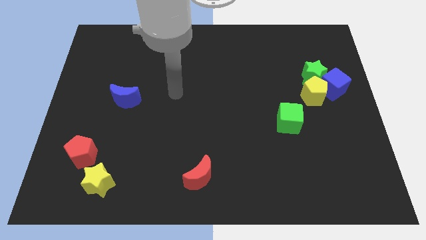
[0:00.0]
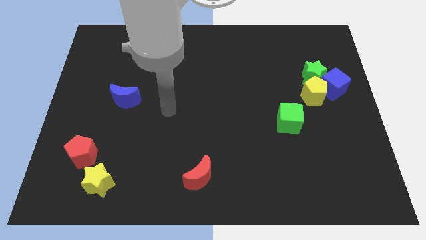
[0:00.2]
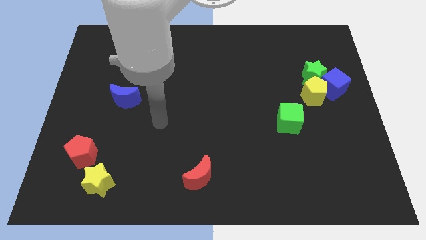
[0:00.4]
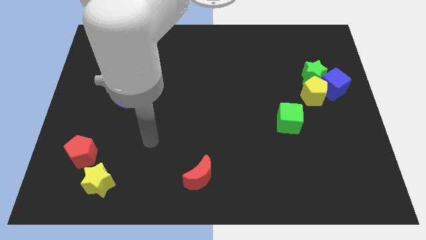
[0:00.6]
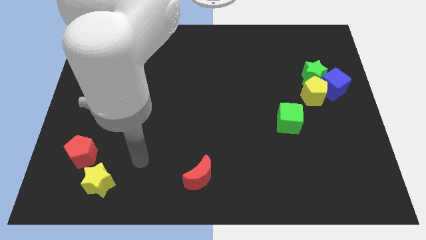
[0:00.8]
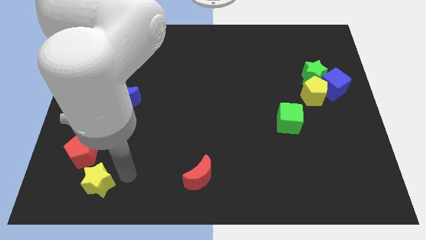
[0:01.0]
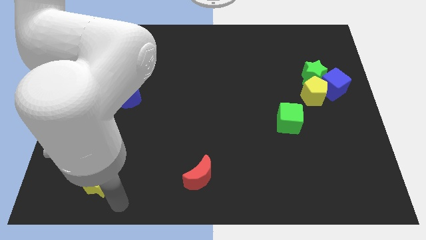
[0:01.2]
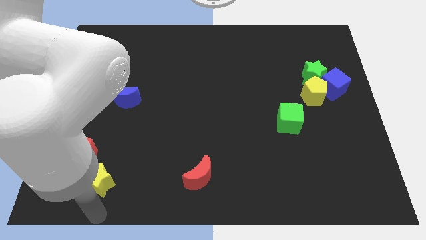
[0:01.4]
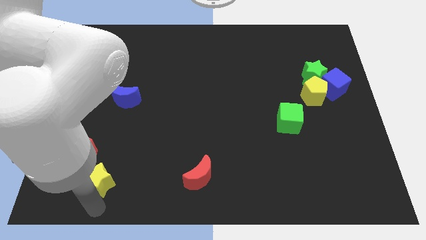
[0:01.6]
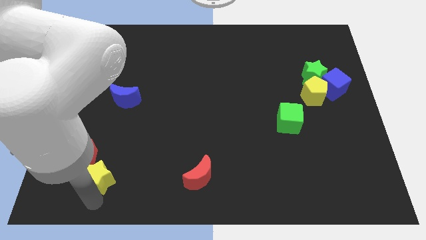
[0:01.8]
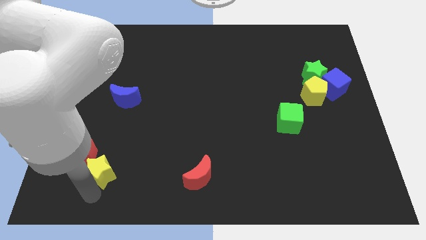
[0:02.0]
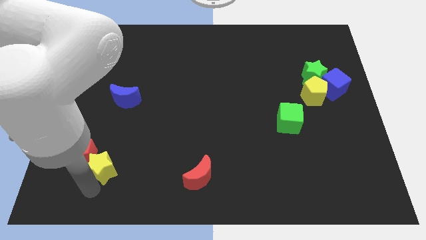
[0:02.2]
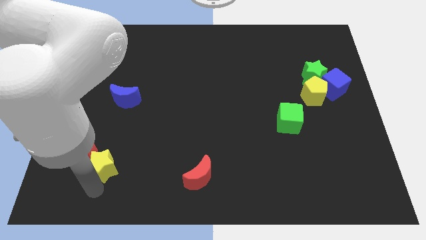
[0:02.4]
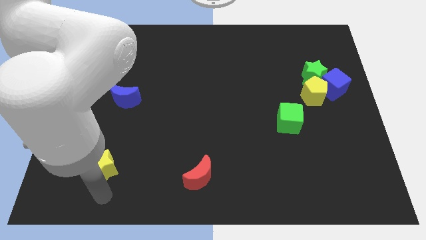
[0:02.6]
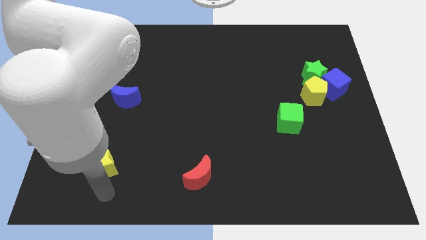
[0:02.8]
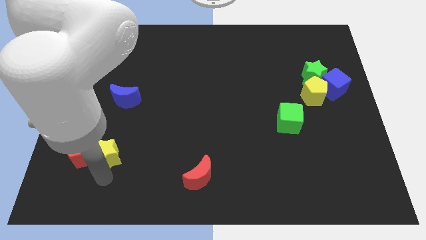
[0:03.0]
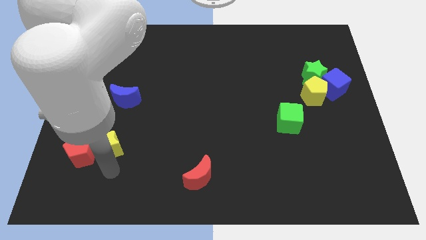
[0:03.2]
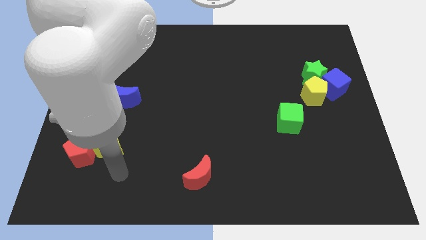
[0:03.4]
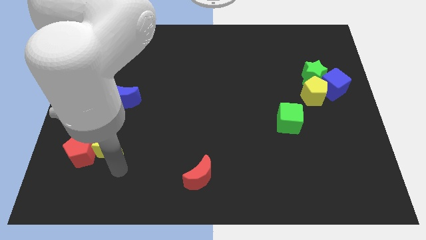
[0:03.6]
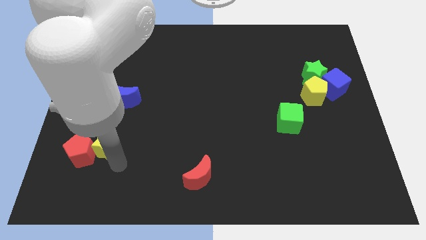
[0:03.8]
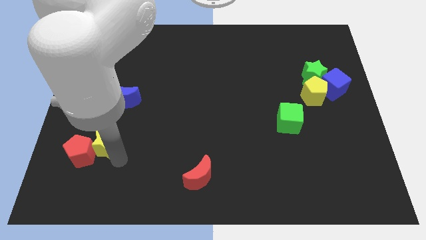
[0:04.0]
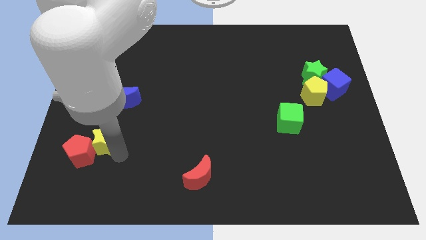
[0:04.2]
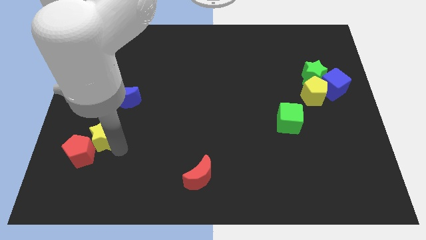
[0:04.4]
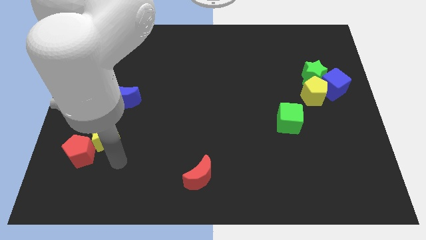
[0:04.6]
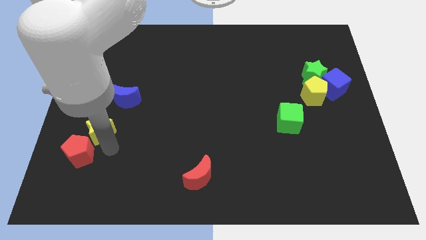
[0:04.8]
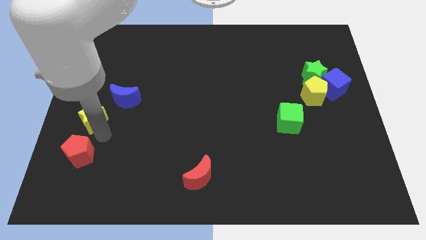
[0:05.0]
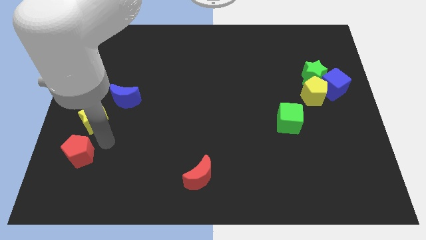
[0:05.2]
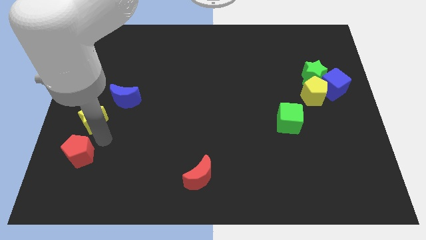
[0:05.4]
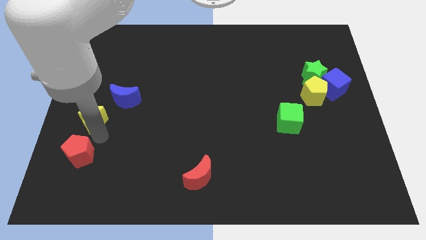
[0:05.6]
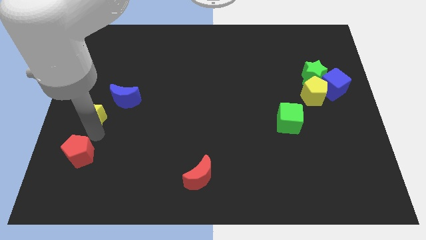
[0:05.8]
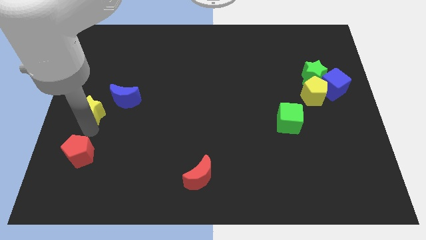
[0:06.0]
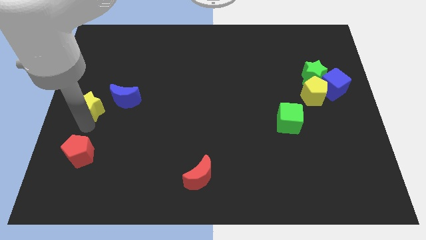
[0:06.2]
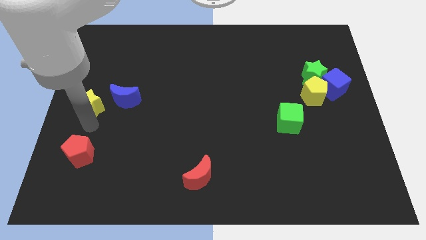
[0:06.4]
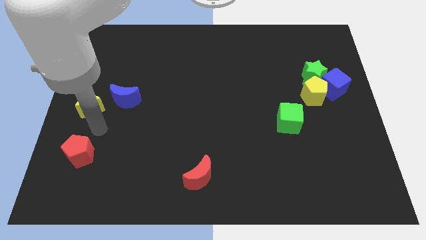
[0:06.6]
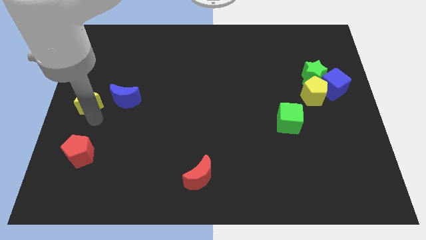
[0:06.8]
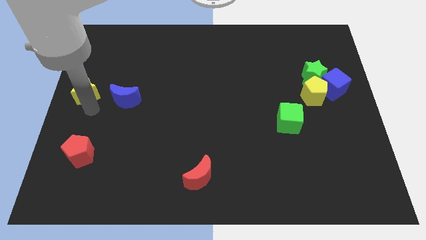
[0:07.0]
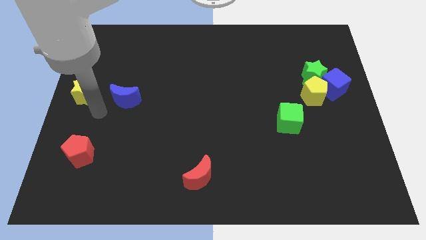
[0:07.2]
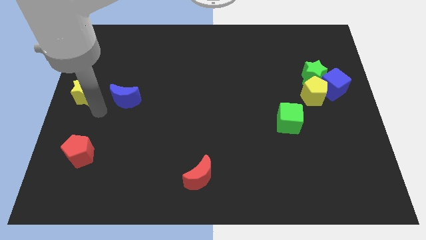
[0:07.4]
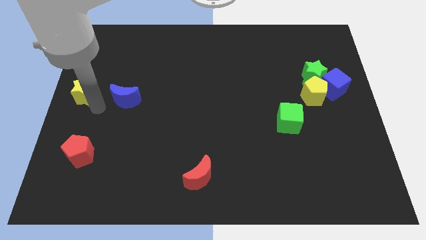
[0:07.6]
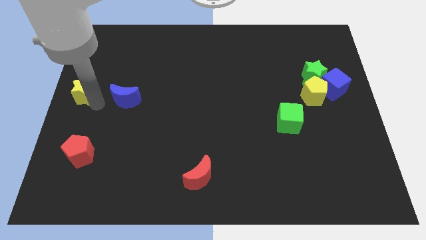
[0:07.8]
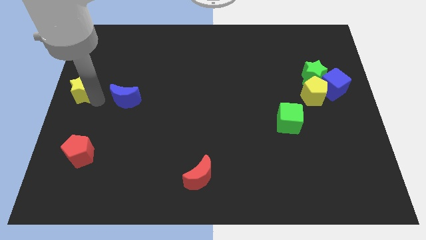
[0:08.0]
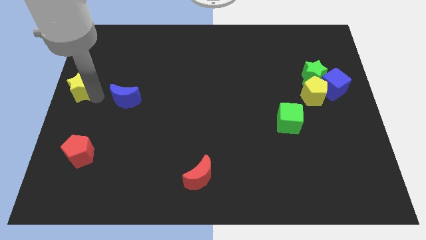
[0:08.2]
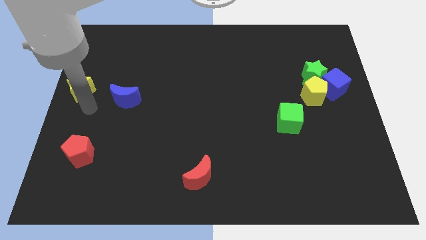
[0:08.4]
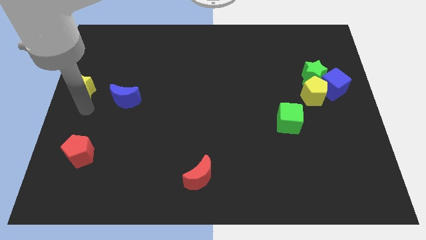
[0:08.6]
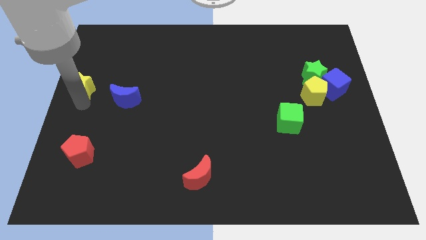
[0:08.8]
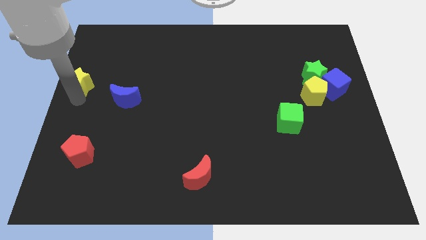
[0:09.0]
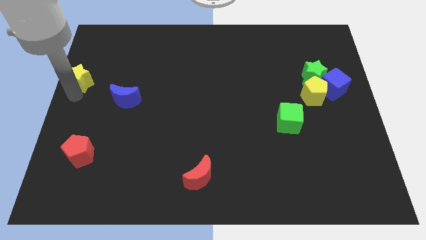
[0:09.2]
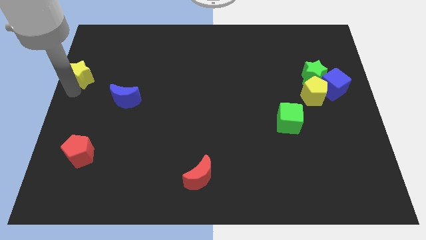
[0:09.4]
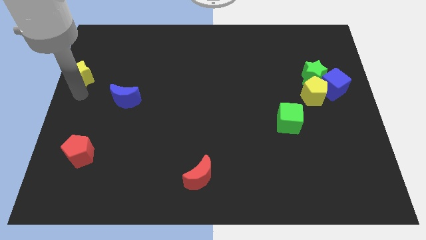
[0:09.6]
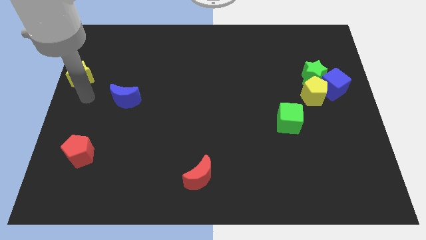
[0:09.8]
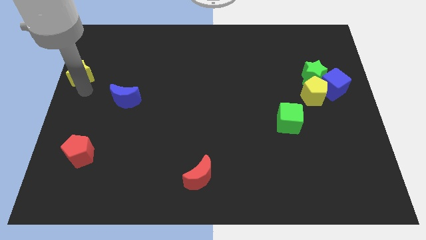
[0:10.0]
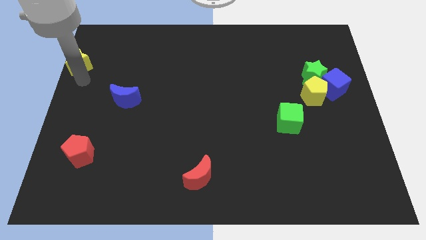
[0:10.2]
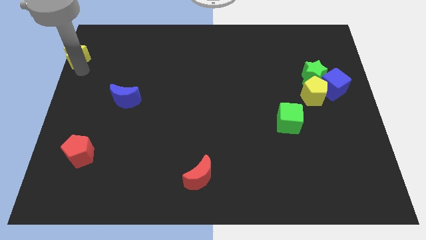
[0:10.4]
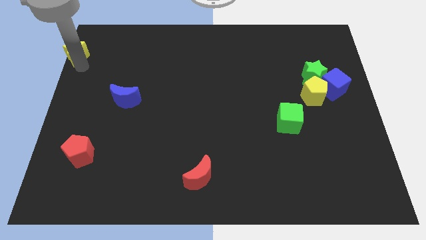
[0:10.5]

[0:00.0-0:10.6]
put the yellow star to the upper left corner
